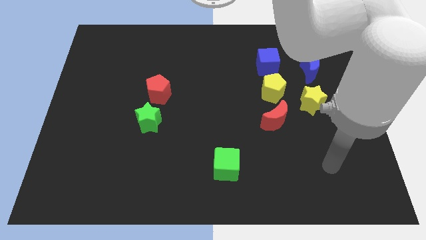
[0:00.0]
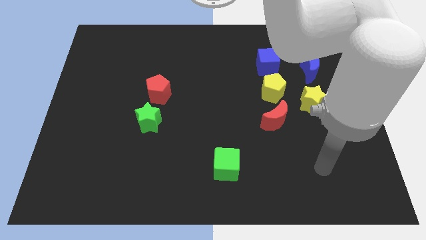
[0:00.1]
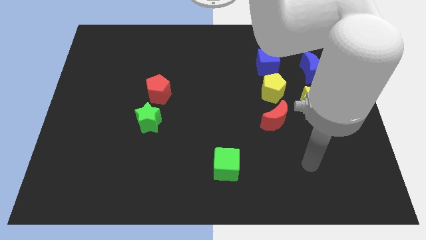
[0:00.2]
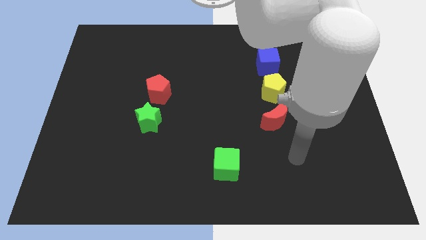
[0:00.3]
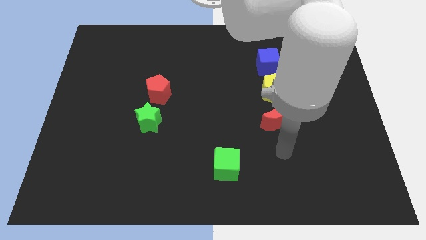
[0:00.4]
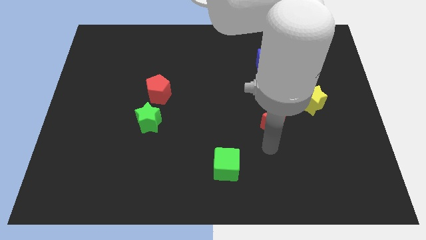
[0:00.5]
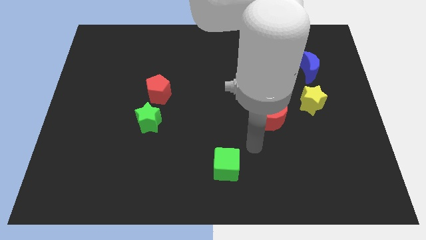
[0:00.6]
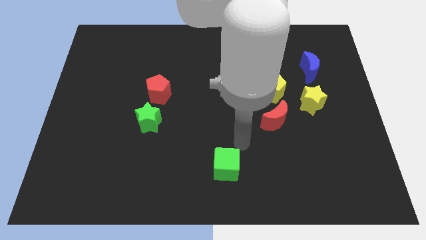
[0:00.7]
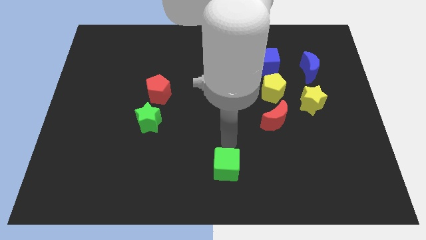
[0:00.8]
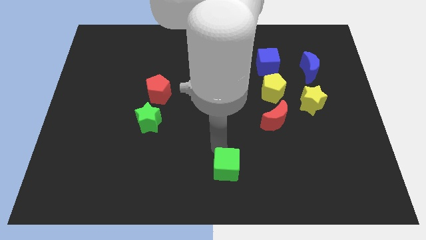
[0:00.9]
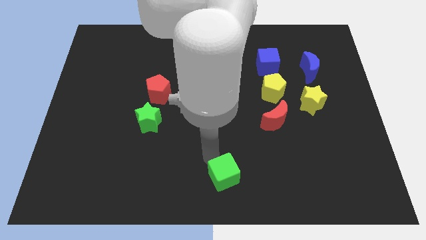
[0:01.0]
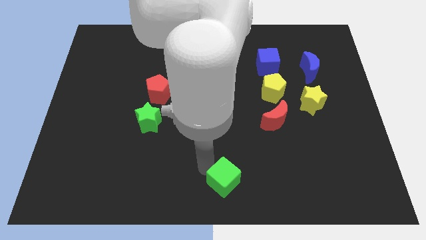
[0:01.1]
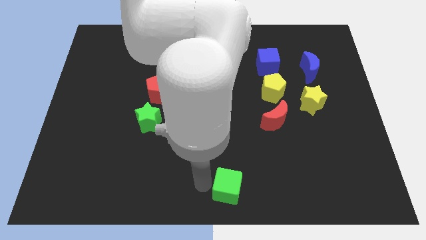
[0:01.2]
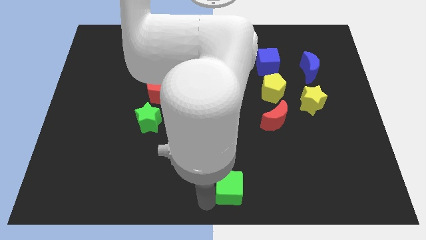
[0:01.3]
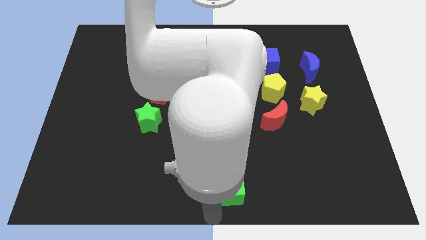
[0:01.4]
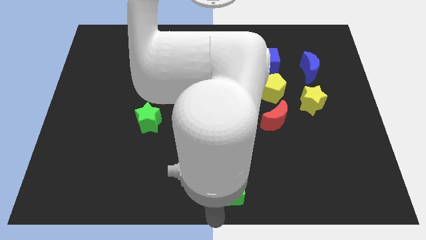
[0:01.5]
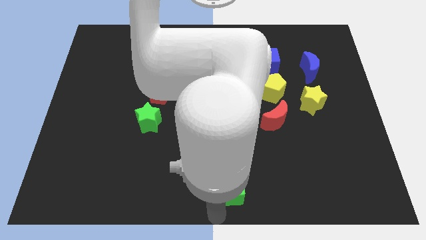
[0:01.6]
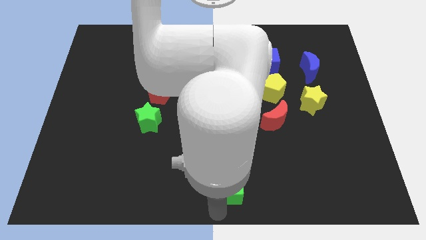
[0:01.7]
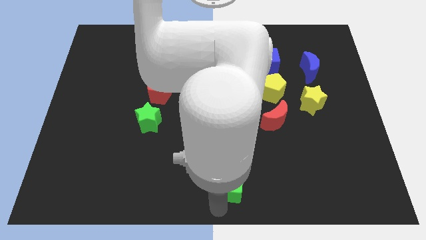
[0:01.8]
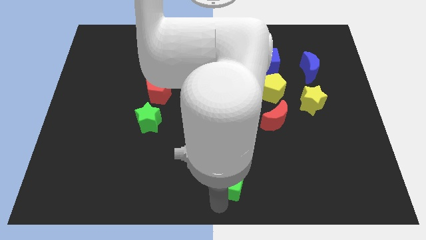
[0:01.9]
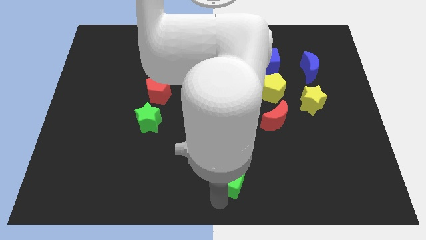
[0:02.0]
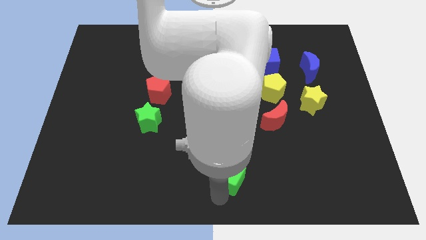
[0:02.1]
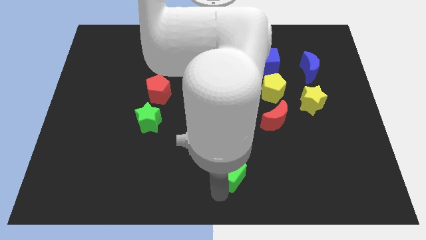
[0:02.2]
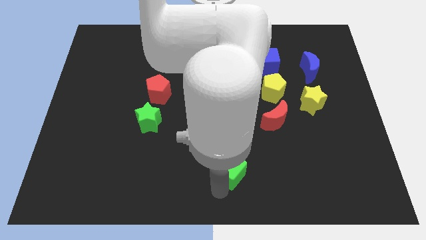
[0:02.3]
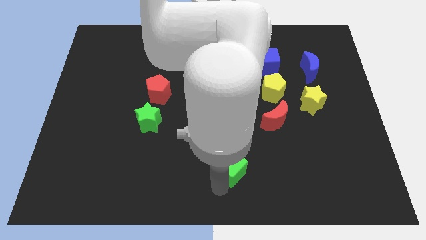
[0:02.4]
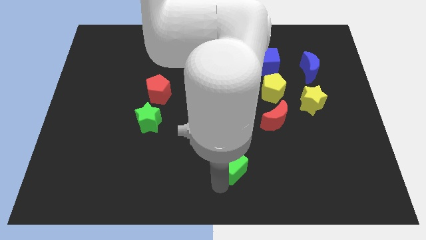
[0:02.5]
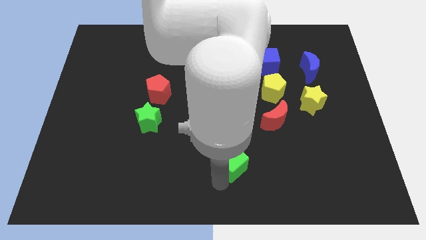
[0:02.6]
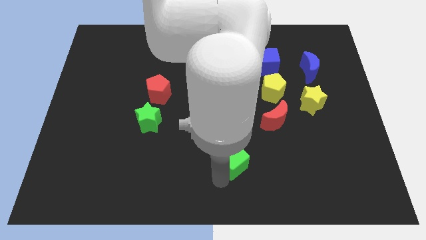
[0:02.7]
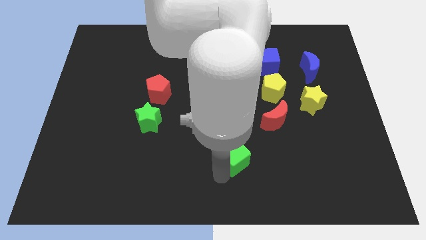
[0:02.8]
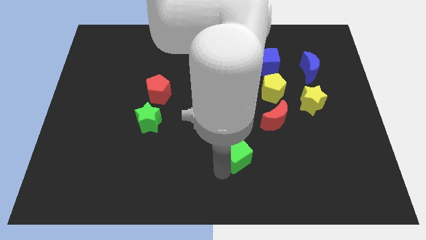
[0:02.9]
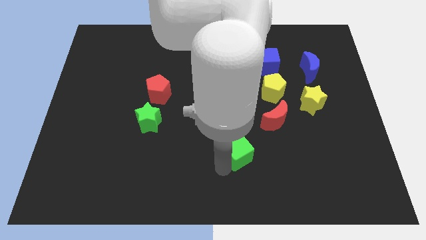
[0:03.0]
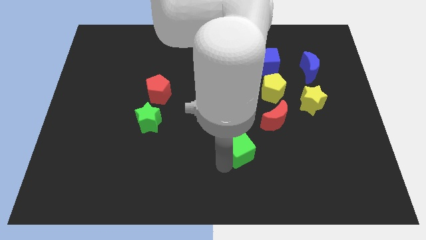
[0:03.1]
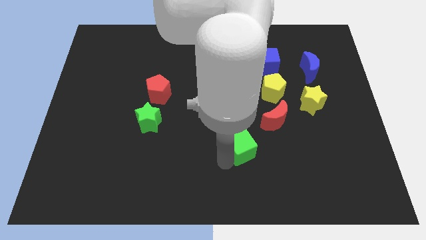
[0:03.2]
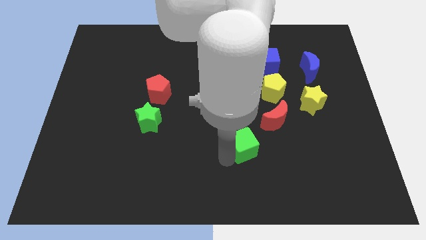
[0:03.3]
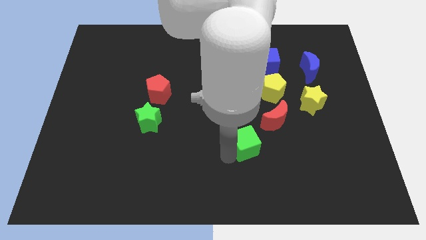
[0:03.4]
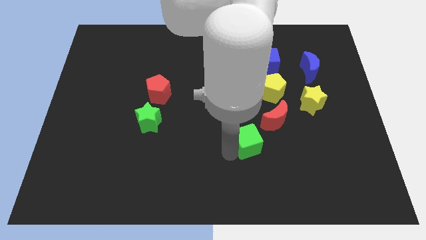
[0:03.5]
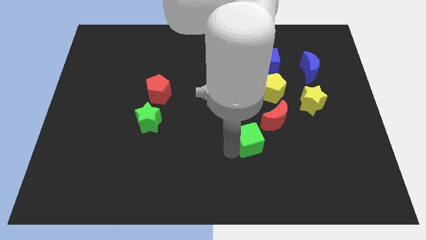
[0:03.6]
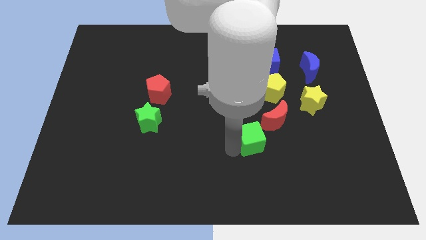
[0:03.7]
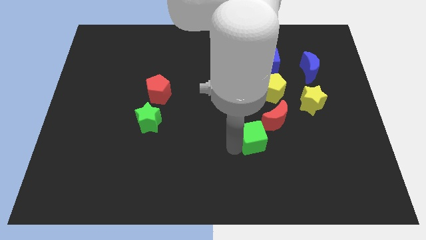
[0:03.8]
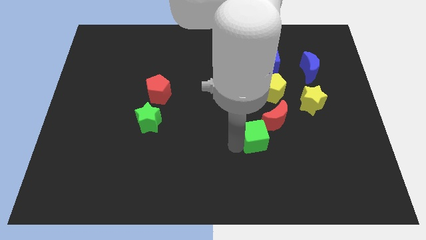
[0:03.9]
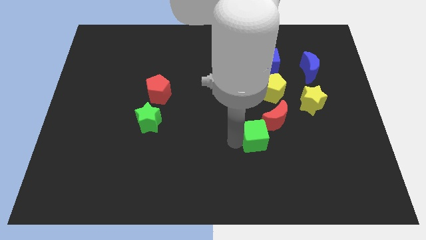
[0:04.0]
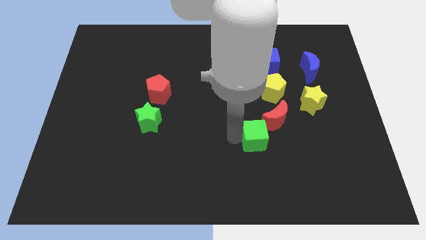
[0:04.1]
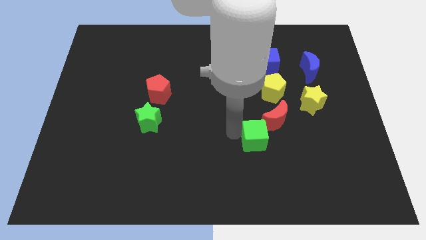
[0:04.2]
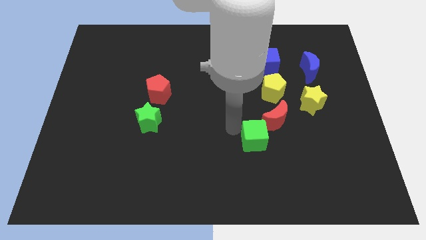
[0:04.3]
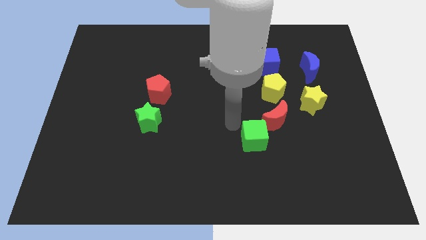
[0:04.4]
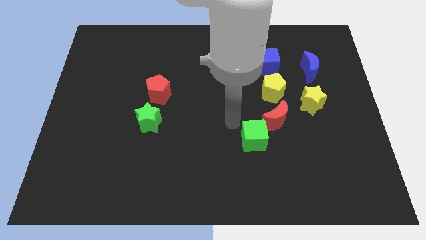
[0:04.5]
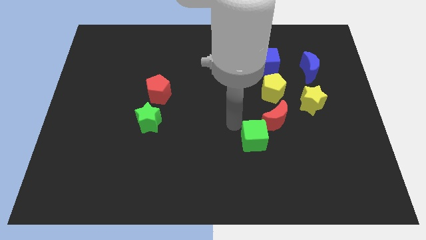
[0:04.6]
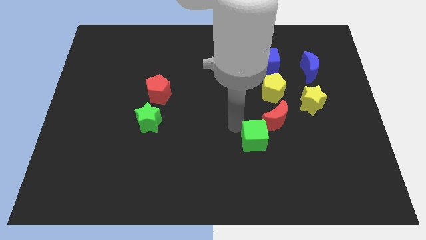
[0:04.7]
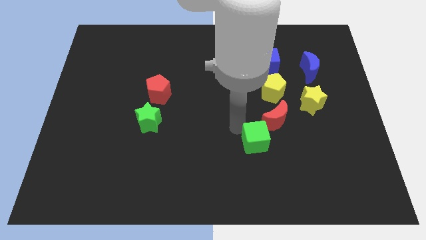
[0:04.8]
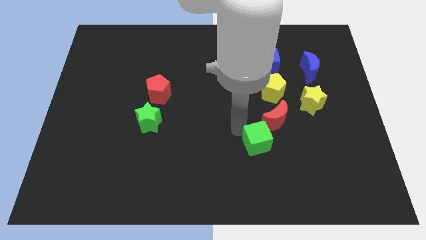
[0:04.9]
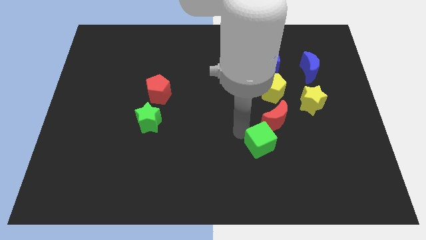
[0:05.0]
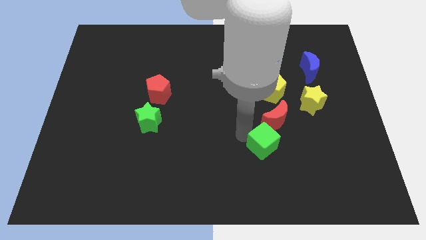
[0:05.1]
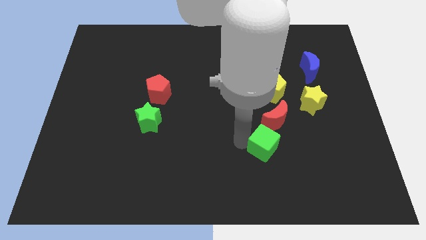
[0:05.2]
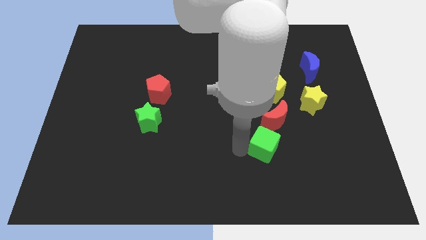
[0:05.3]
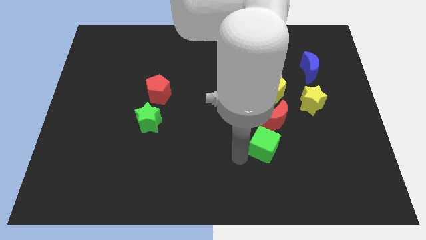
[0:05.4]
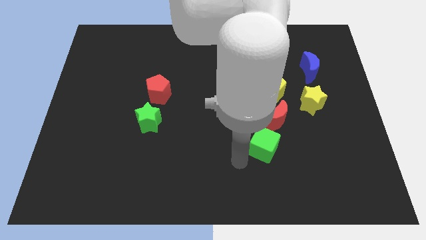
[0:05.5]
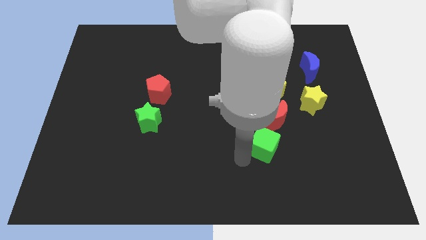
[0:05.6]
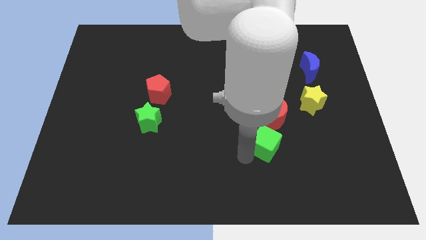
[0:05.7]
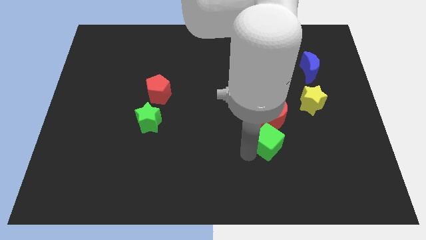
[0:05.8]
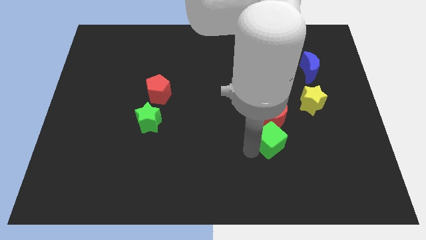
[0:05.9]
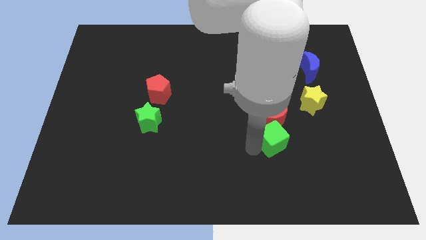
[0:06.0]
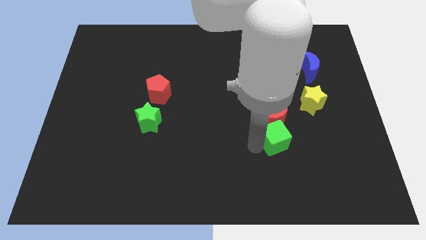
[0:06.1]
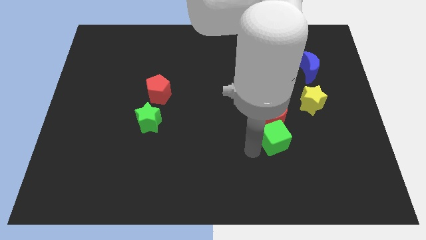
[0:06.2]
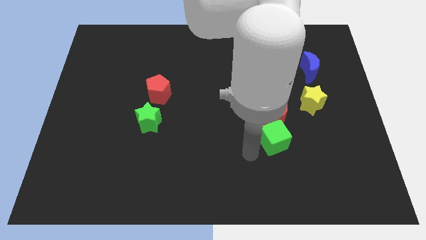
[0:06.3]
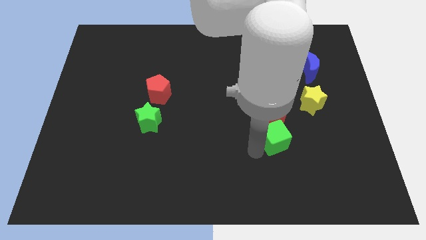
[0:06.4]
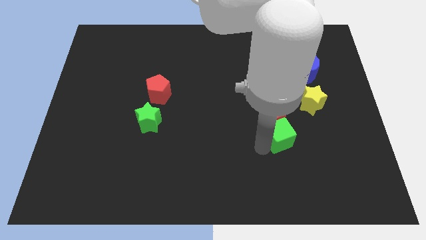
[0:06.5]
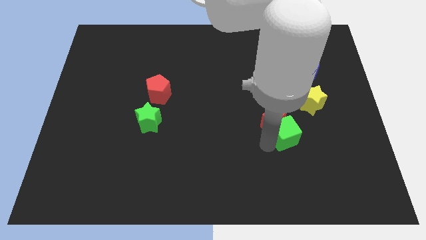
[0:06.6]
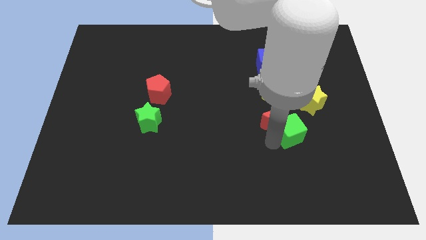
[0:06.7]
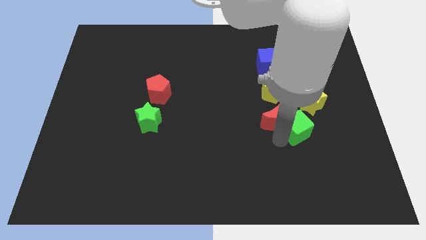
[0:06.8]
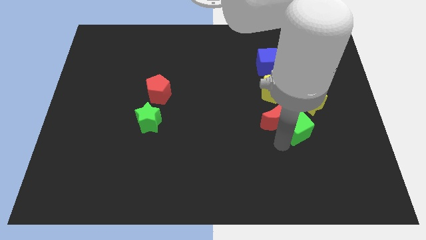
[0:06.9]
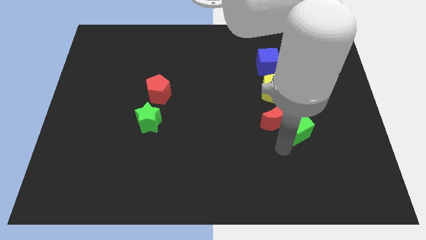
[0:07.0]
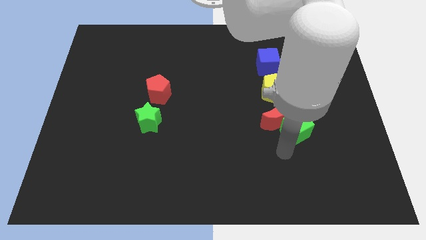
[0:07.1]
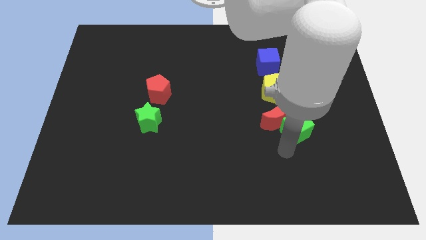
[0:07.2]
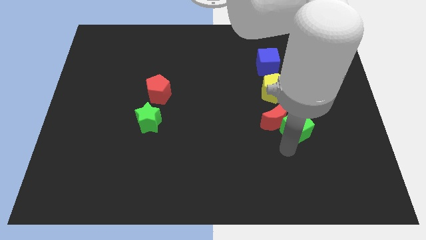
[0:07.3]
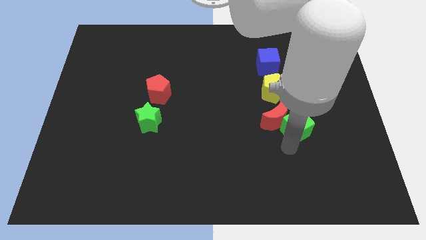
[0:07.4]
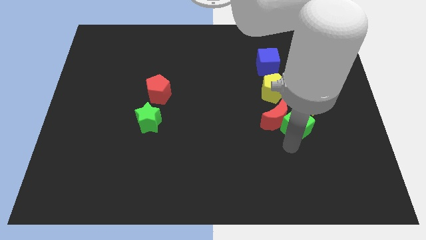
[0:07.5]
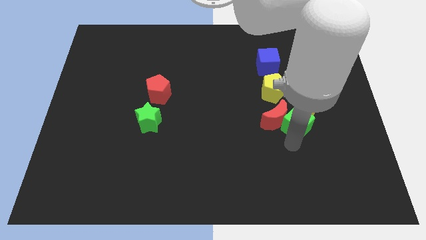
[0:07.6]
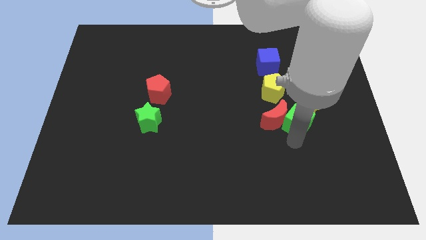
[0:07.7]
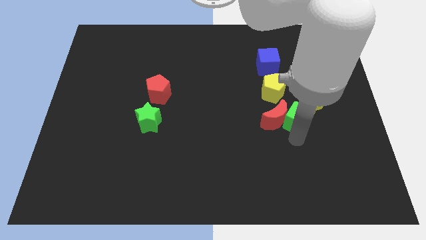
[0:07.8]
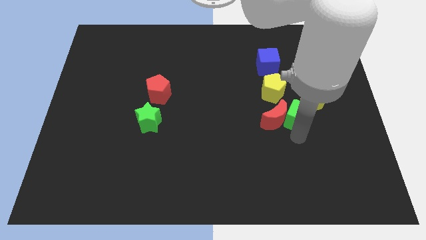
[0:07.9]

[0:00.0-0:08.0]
put the green cube to the yellow star
